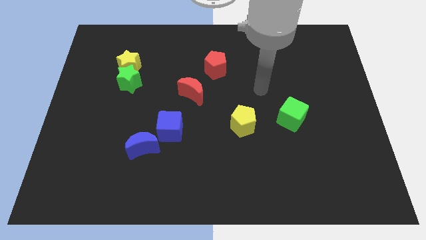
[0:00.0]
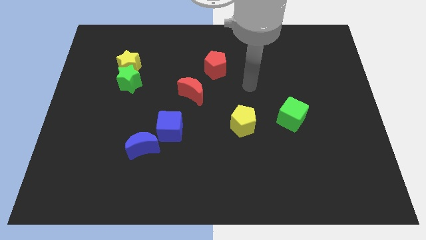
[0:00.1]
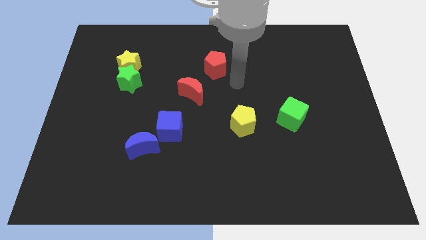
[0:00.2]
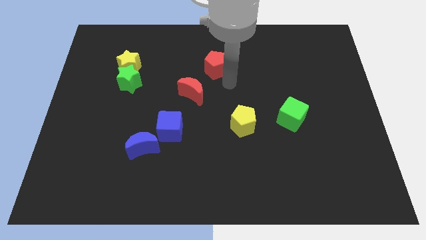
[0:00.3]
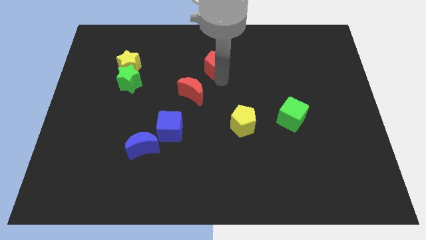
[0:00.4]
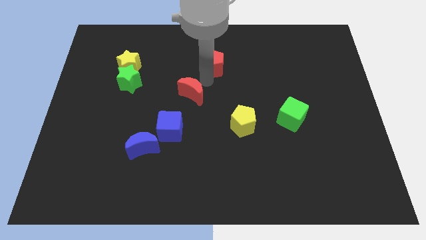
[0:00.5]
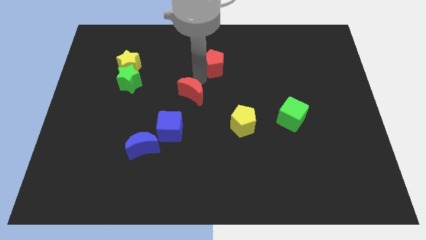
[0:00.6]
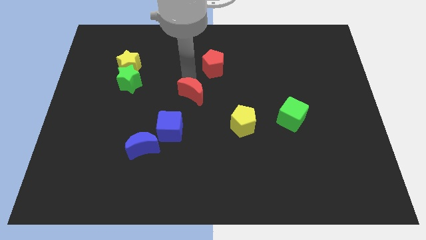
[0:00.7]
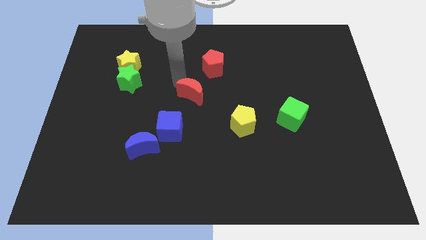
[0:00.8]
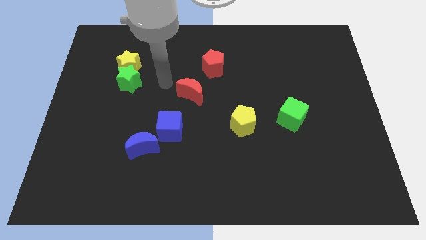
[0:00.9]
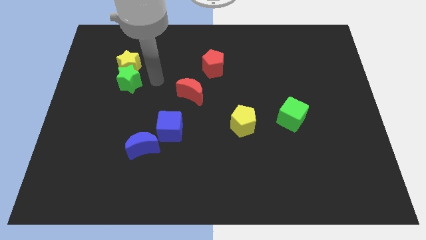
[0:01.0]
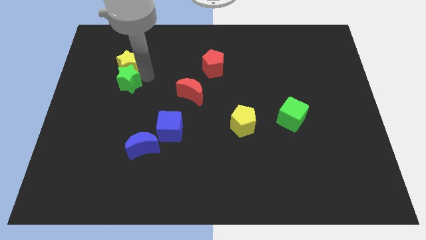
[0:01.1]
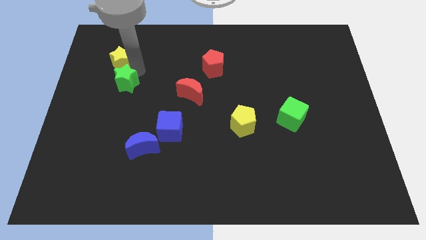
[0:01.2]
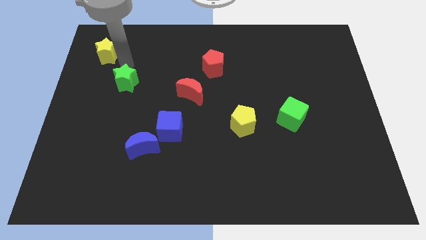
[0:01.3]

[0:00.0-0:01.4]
pull the green star apart from the yellow star

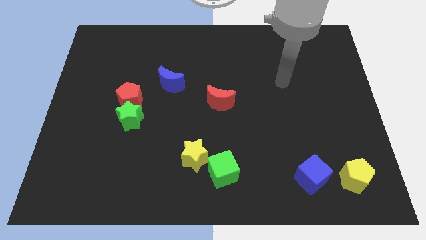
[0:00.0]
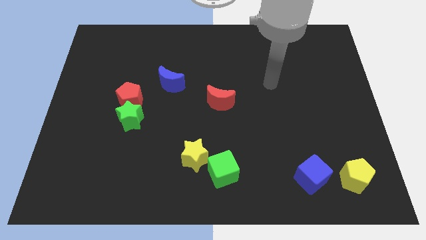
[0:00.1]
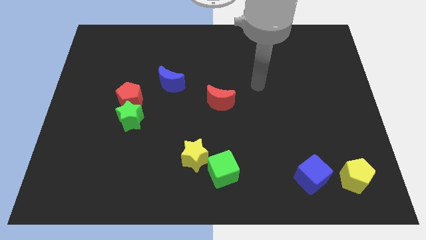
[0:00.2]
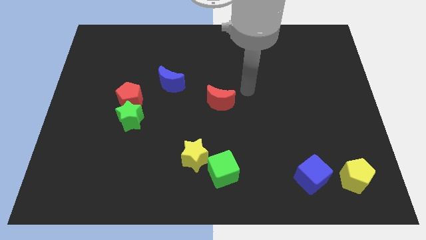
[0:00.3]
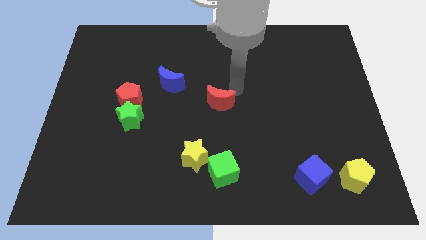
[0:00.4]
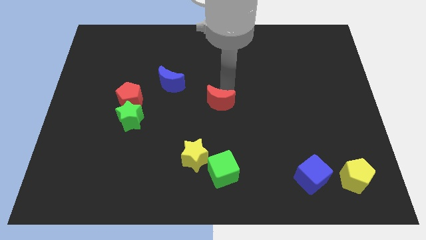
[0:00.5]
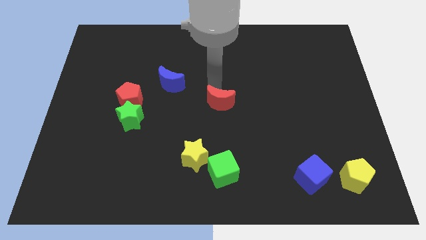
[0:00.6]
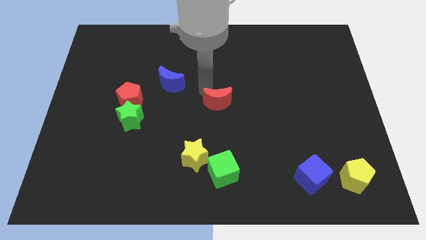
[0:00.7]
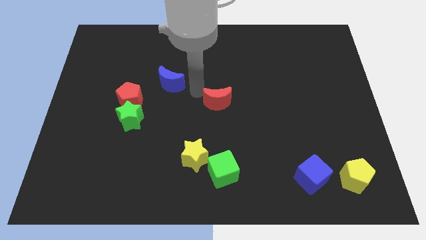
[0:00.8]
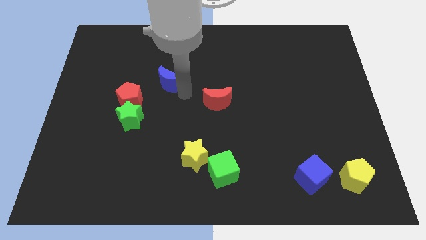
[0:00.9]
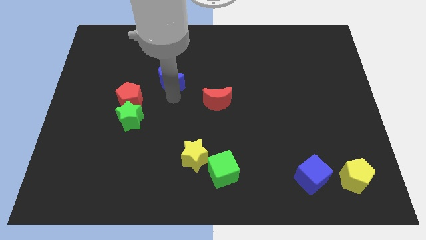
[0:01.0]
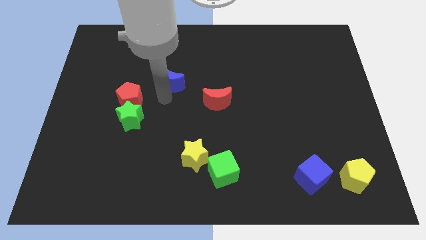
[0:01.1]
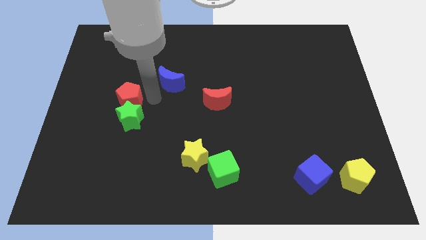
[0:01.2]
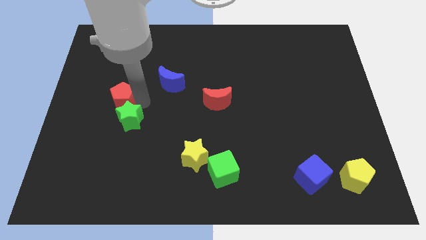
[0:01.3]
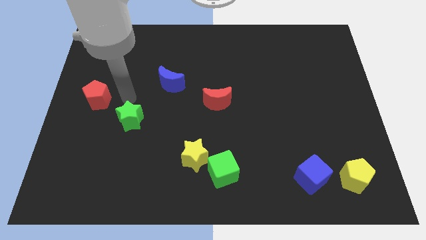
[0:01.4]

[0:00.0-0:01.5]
pull the green star apart from the red pentagon

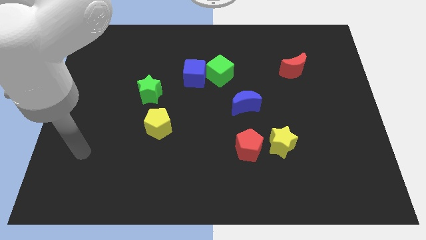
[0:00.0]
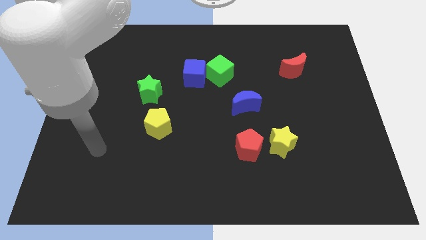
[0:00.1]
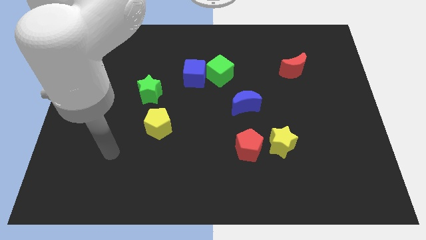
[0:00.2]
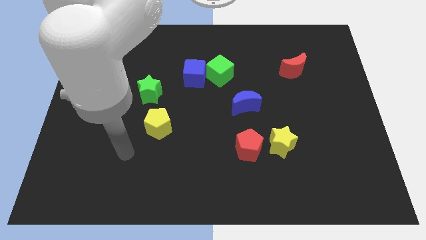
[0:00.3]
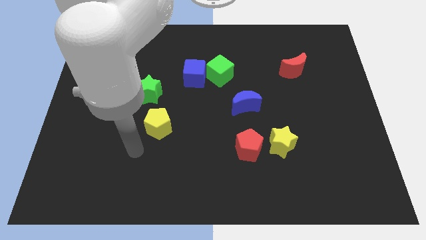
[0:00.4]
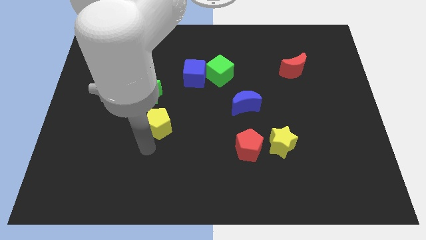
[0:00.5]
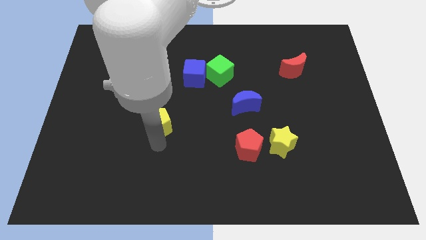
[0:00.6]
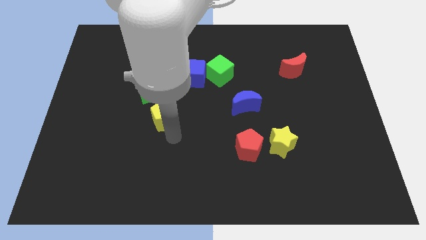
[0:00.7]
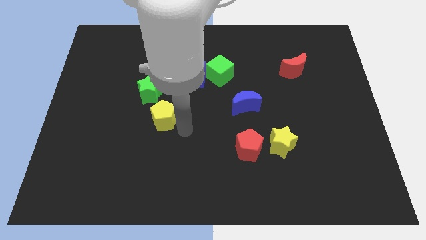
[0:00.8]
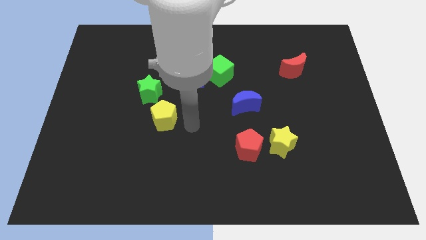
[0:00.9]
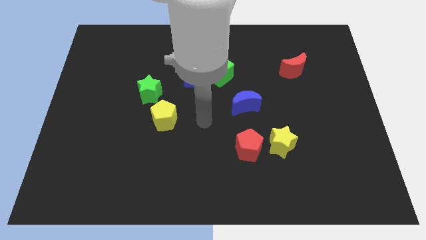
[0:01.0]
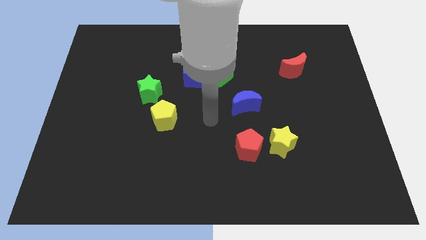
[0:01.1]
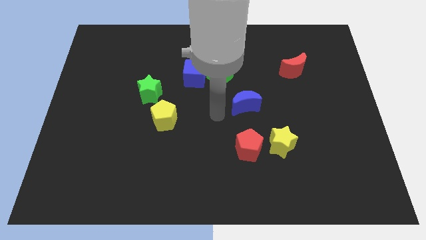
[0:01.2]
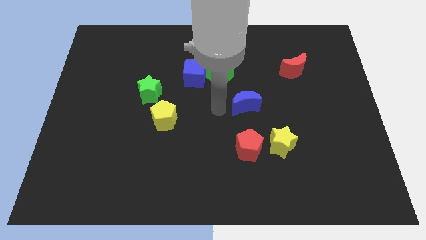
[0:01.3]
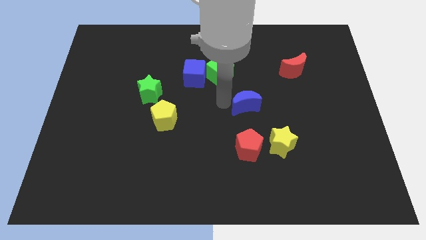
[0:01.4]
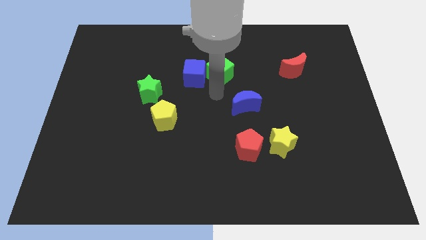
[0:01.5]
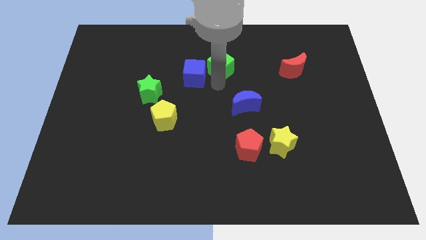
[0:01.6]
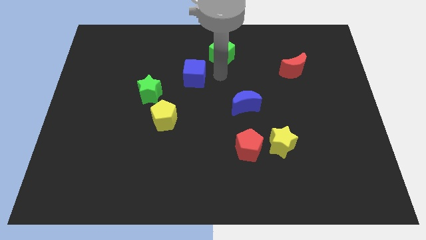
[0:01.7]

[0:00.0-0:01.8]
pull the blue cube apart from the green cube

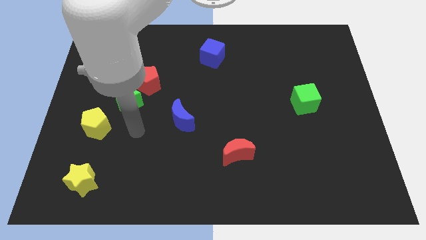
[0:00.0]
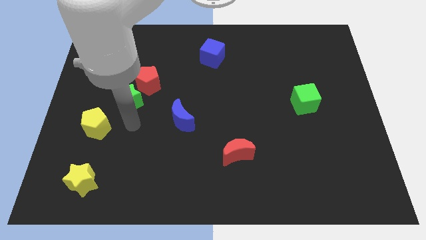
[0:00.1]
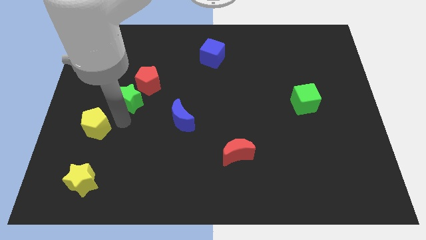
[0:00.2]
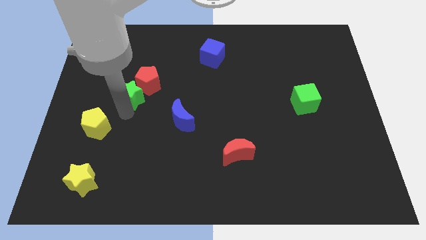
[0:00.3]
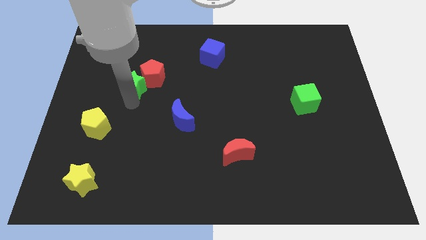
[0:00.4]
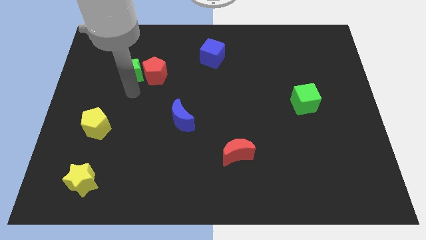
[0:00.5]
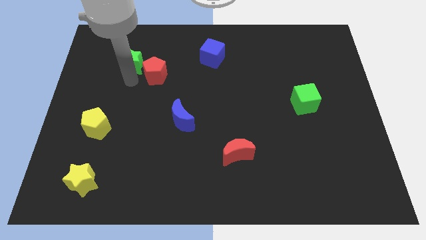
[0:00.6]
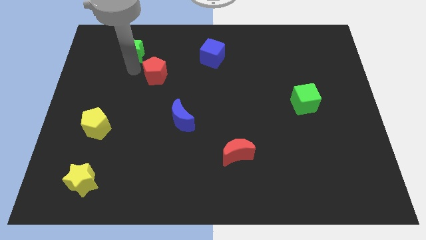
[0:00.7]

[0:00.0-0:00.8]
move the red pentagon away from the green star

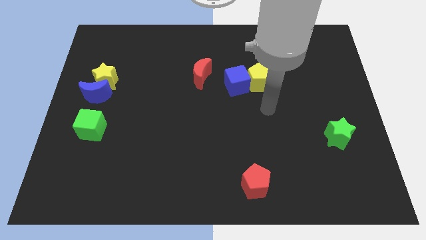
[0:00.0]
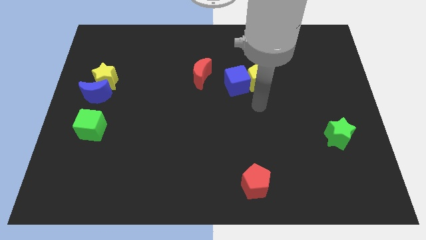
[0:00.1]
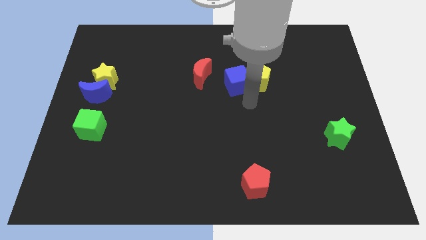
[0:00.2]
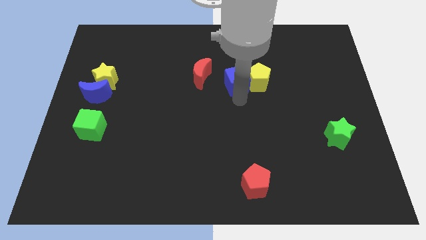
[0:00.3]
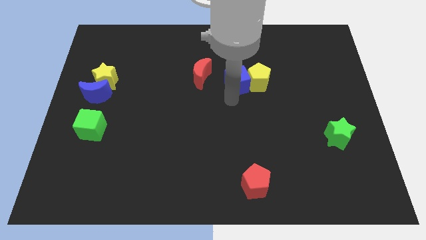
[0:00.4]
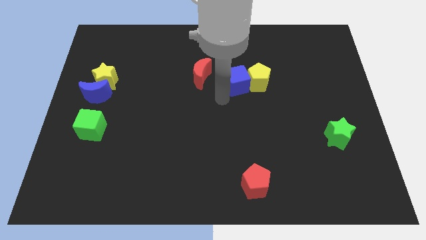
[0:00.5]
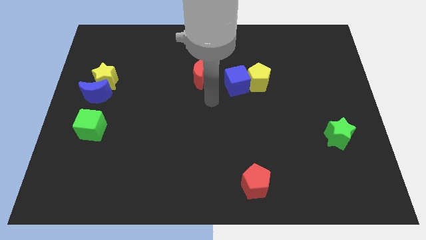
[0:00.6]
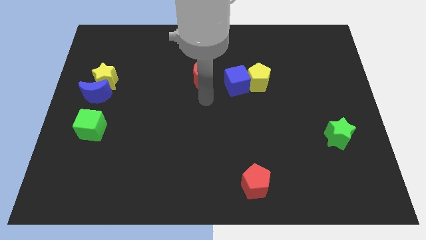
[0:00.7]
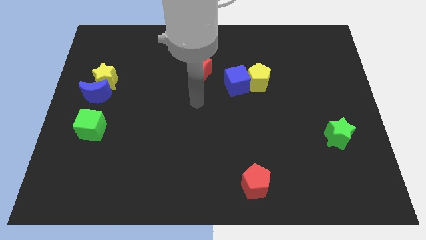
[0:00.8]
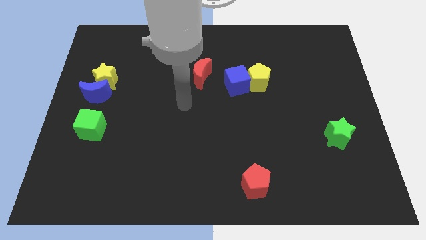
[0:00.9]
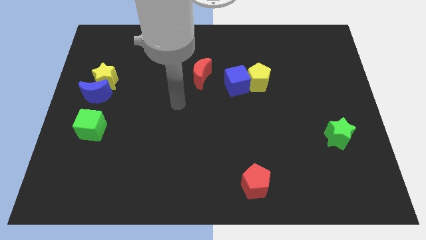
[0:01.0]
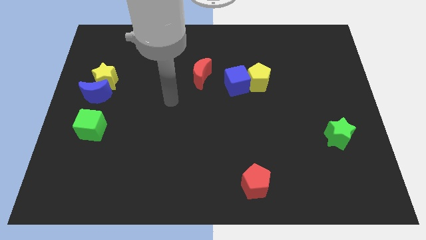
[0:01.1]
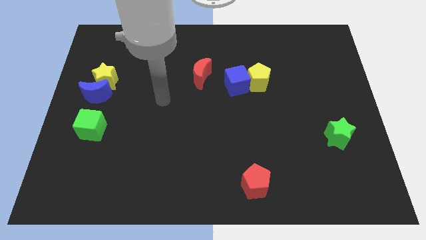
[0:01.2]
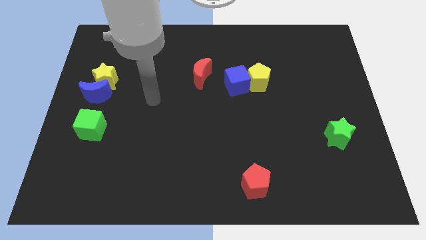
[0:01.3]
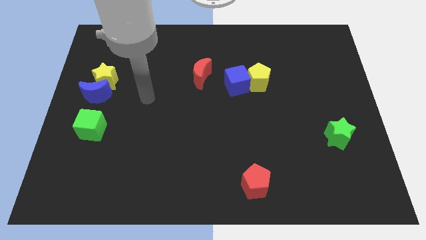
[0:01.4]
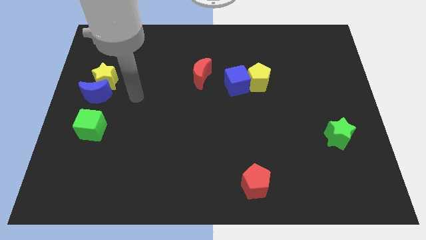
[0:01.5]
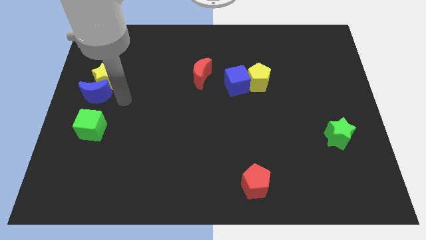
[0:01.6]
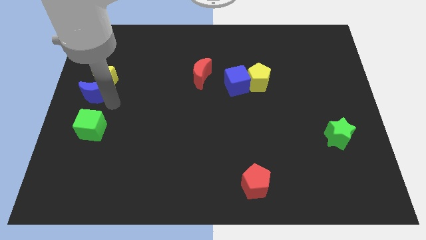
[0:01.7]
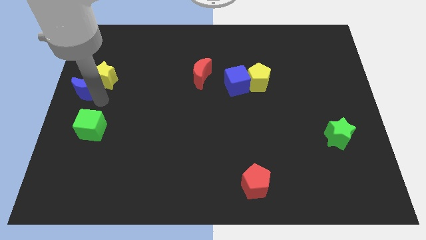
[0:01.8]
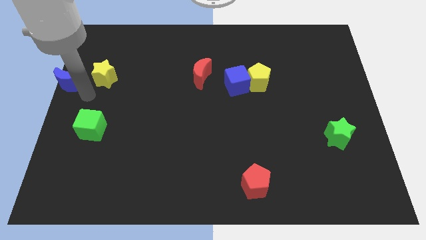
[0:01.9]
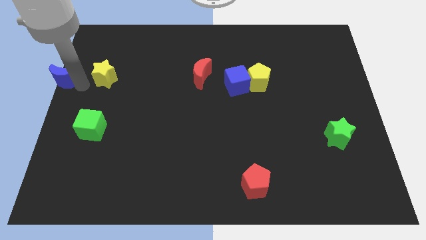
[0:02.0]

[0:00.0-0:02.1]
move the yellow star away from the blue moon

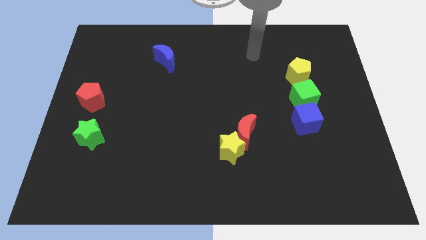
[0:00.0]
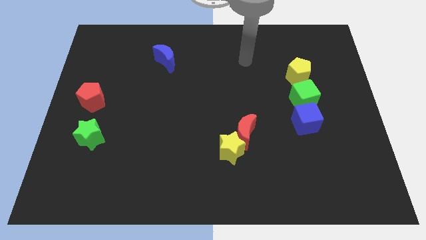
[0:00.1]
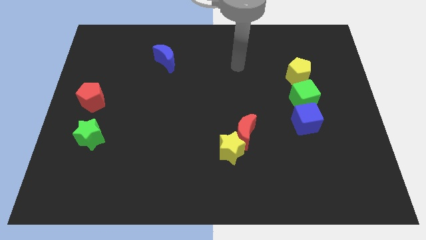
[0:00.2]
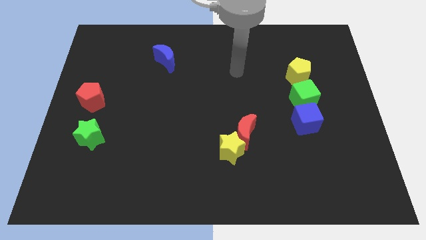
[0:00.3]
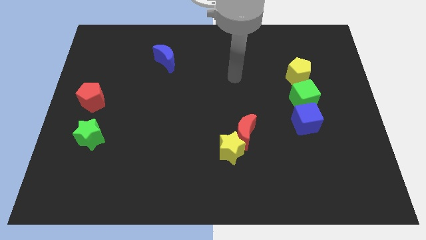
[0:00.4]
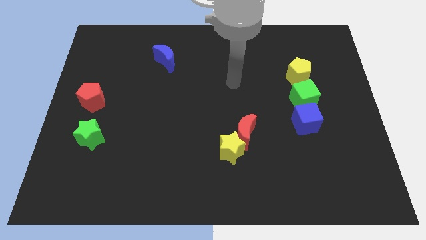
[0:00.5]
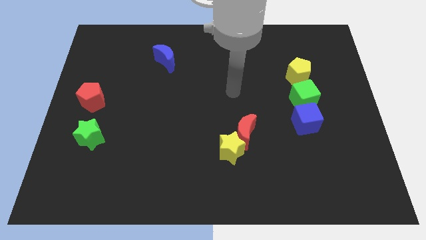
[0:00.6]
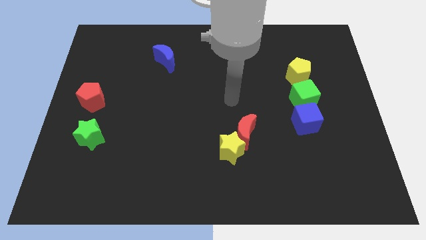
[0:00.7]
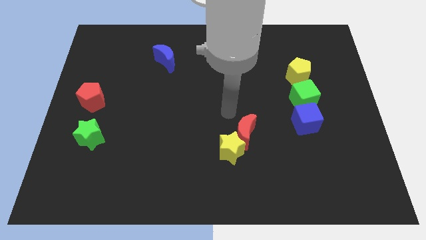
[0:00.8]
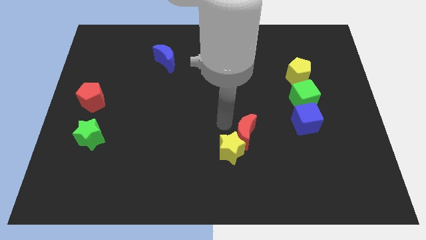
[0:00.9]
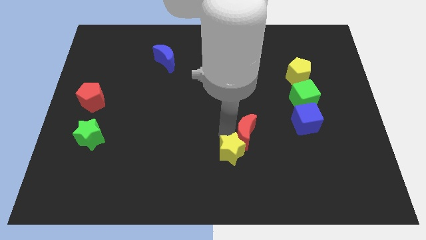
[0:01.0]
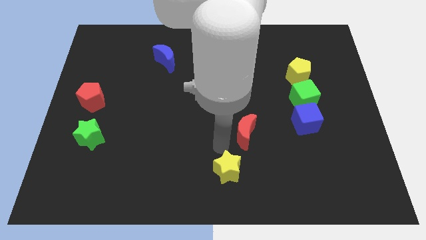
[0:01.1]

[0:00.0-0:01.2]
separate the red moon from the yellow star

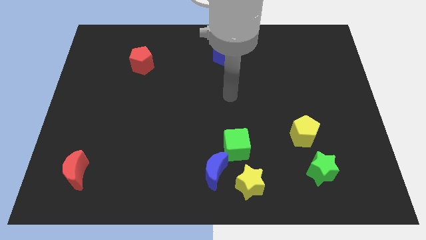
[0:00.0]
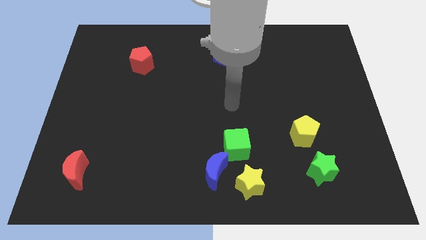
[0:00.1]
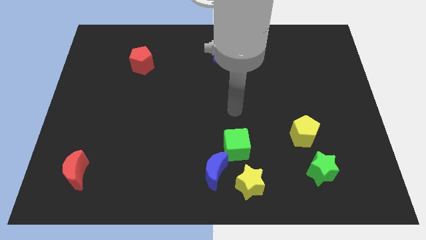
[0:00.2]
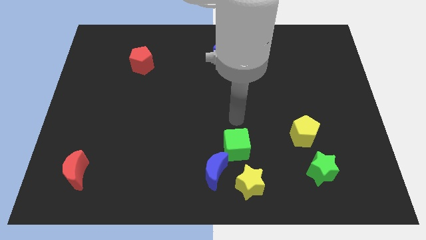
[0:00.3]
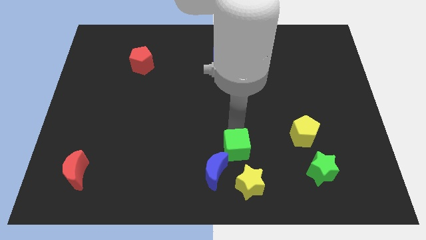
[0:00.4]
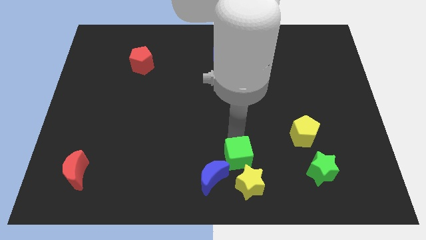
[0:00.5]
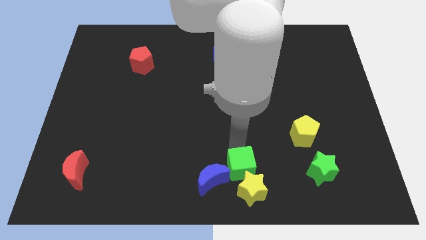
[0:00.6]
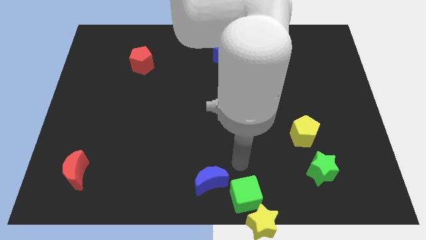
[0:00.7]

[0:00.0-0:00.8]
separate the blue moon from the green cube and yellow star
